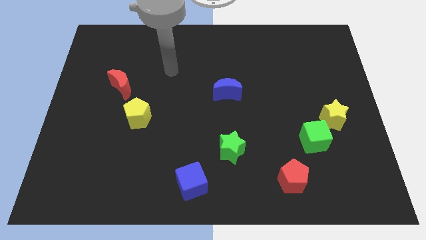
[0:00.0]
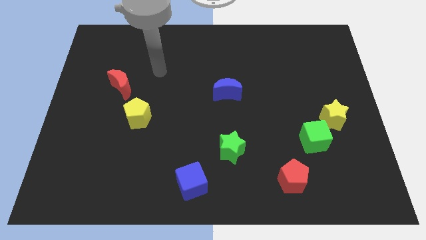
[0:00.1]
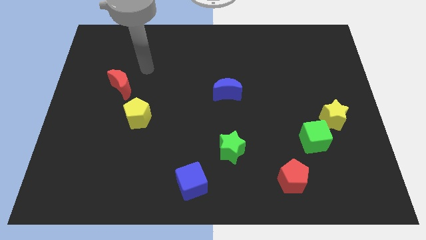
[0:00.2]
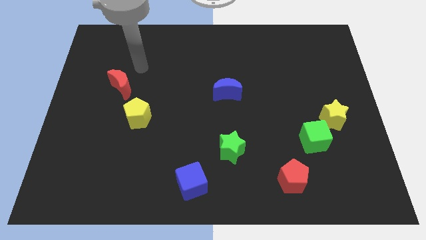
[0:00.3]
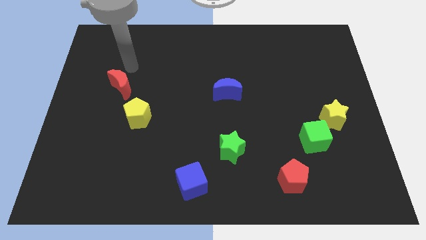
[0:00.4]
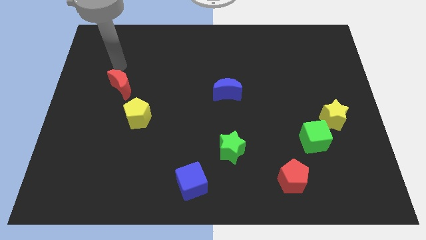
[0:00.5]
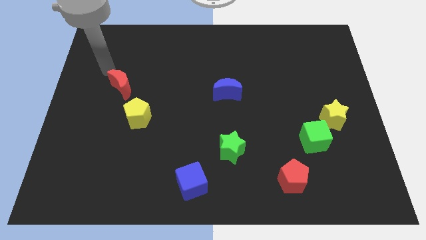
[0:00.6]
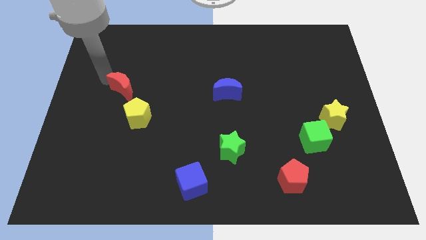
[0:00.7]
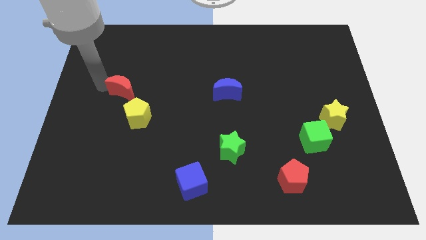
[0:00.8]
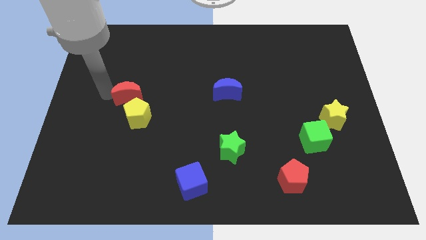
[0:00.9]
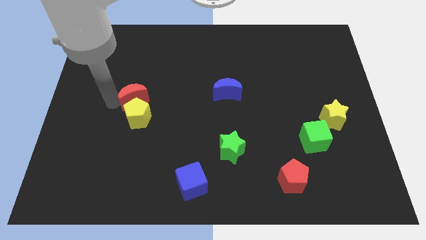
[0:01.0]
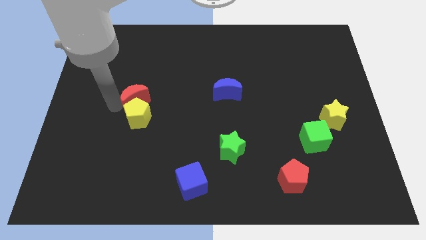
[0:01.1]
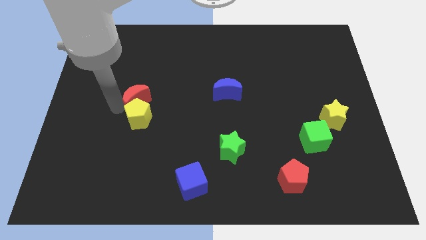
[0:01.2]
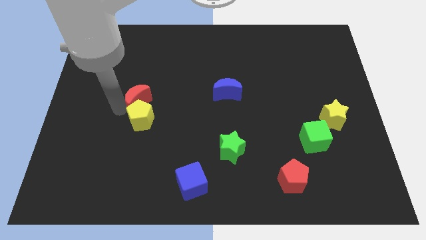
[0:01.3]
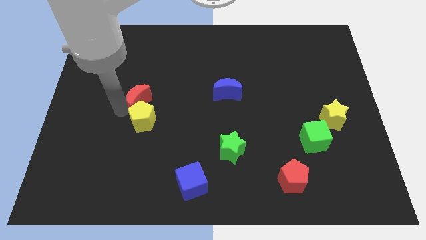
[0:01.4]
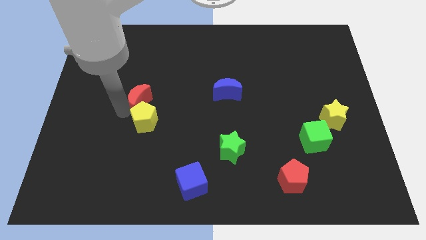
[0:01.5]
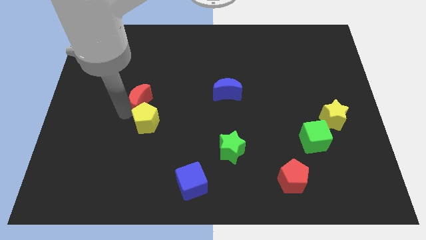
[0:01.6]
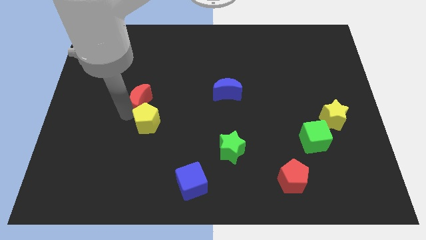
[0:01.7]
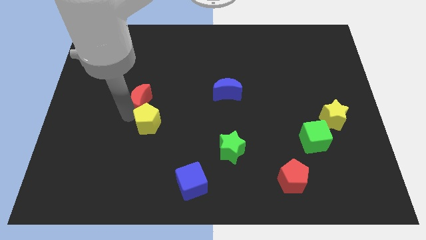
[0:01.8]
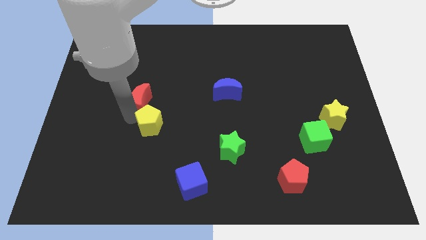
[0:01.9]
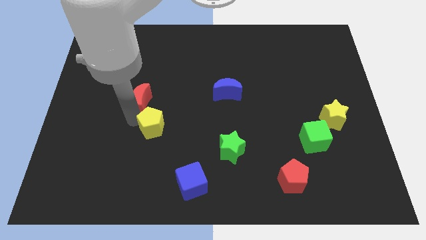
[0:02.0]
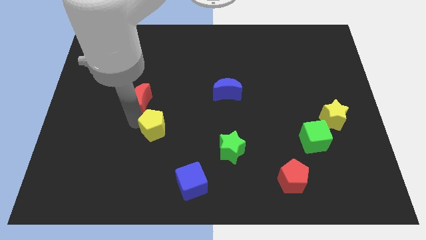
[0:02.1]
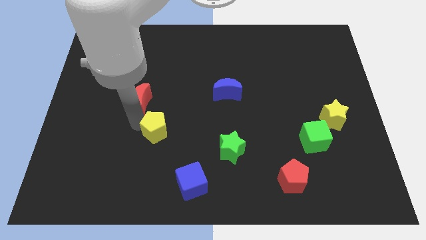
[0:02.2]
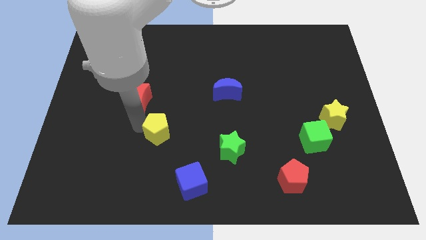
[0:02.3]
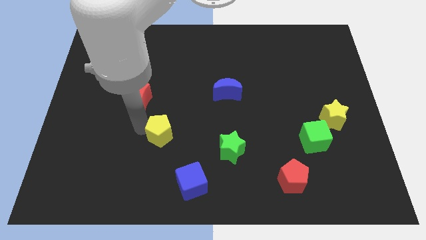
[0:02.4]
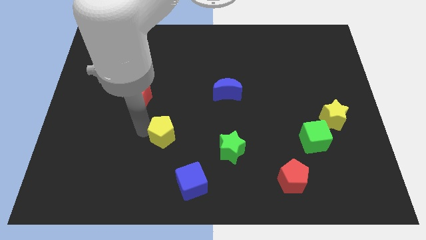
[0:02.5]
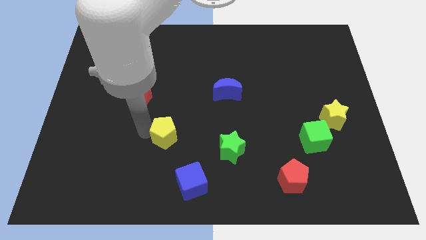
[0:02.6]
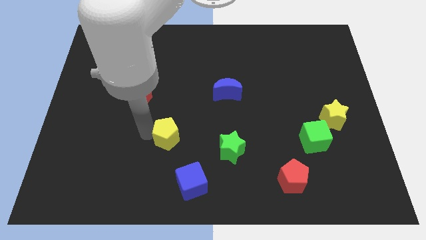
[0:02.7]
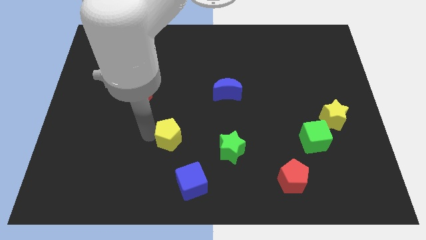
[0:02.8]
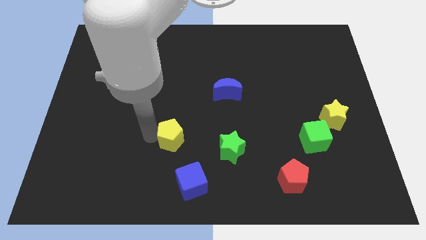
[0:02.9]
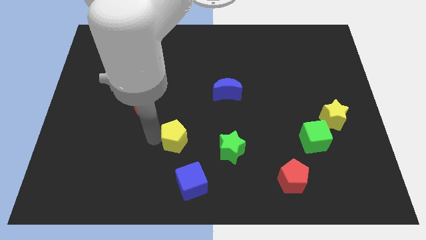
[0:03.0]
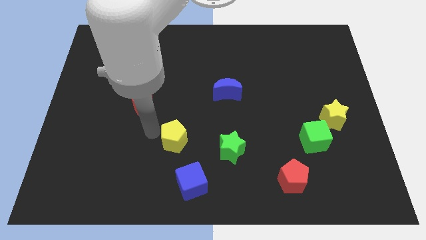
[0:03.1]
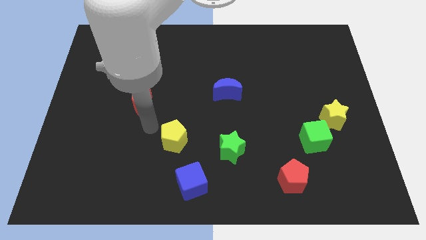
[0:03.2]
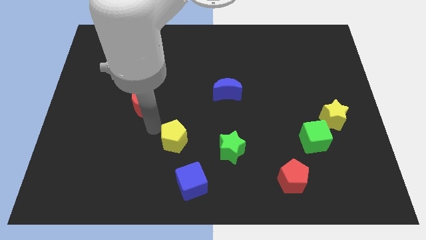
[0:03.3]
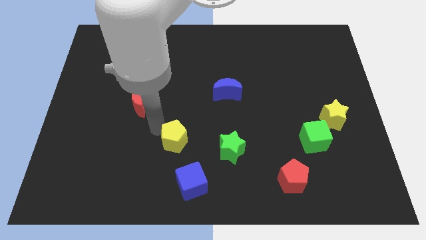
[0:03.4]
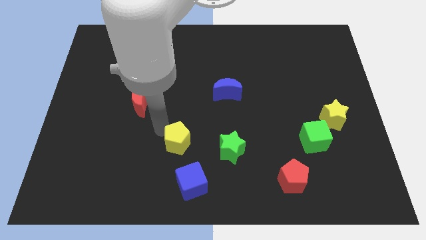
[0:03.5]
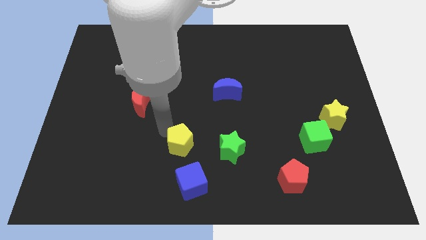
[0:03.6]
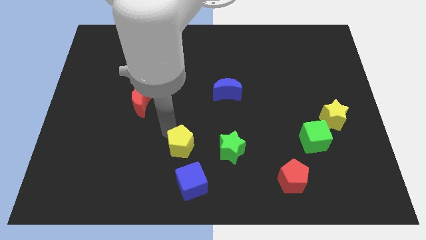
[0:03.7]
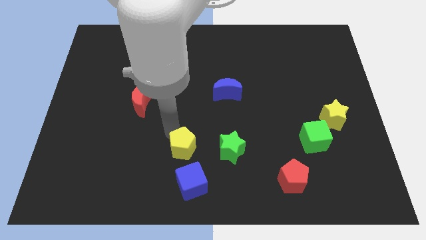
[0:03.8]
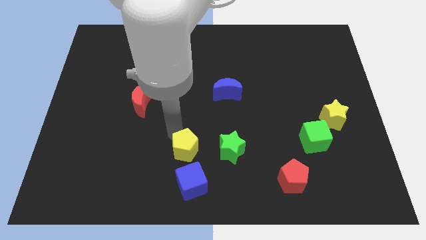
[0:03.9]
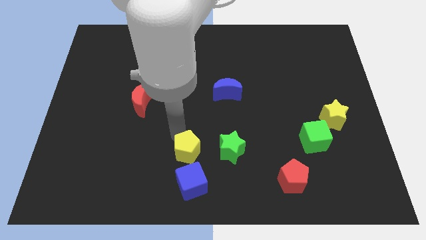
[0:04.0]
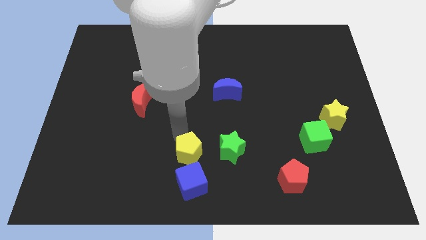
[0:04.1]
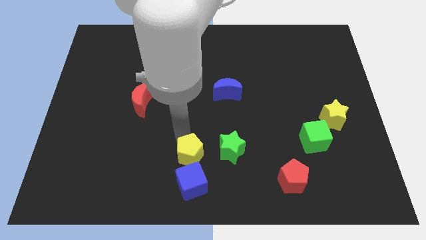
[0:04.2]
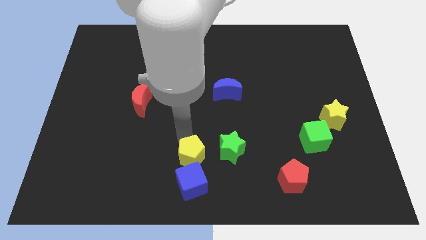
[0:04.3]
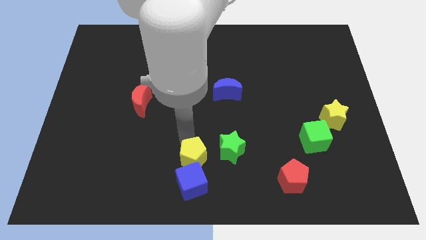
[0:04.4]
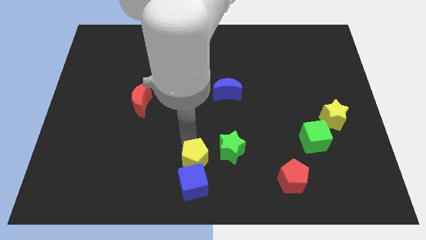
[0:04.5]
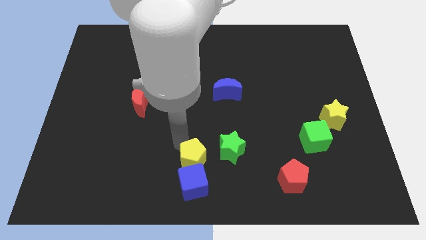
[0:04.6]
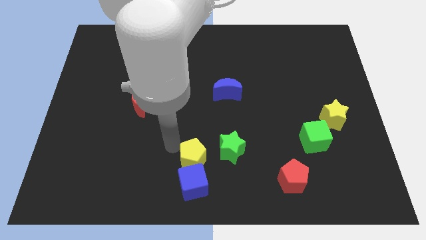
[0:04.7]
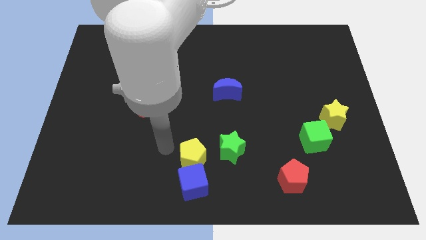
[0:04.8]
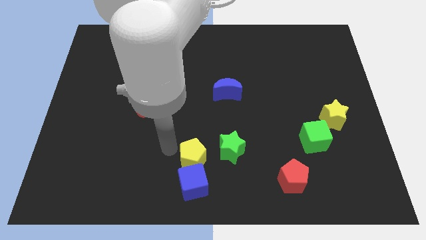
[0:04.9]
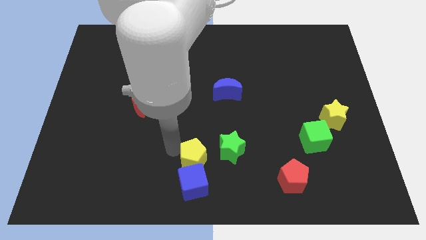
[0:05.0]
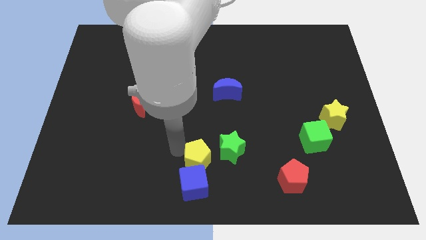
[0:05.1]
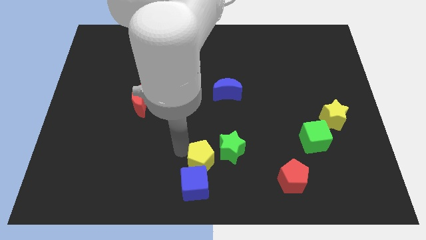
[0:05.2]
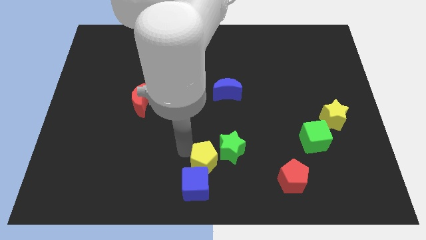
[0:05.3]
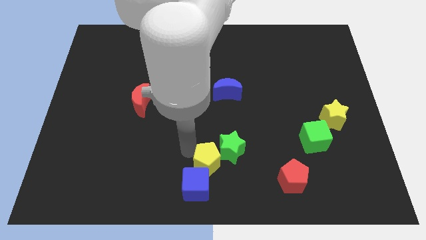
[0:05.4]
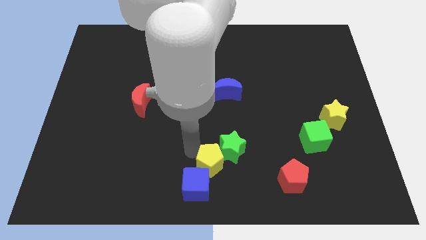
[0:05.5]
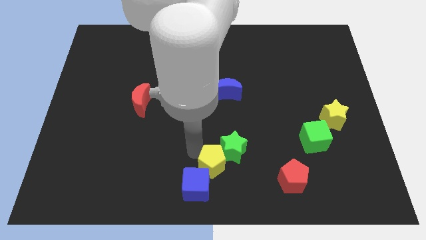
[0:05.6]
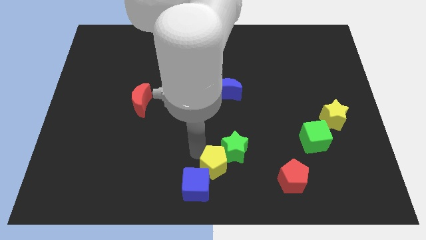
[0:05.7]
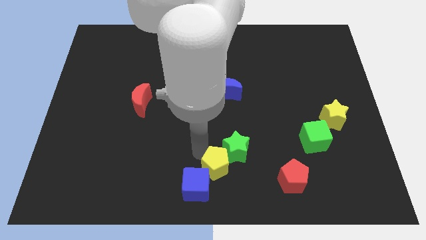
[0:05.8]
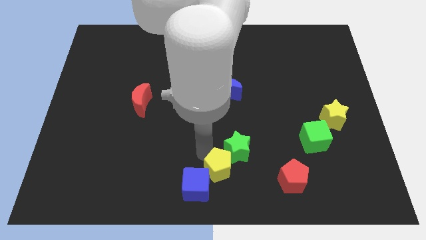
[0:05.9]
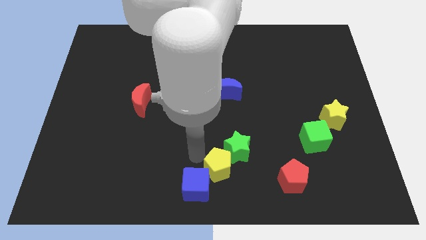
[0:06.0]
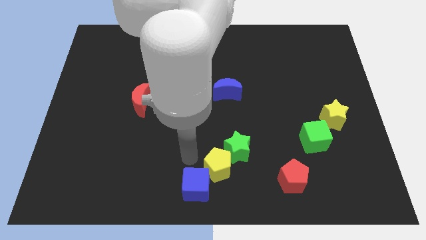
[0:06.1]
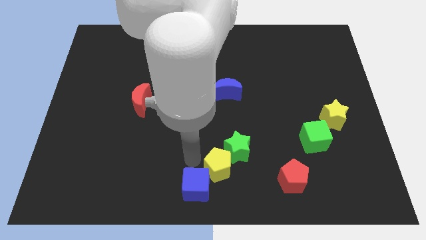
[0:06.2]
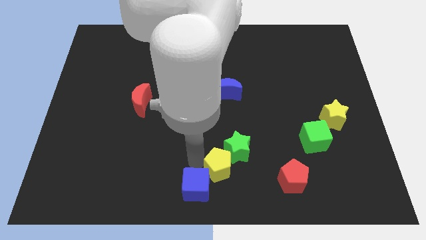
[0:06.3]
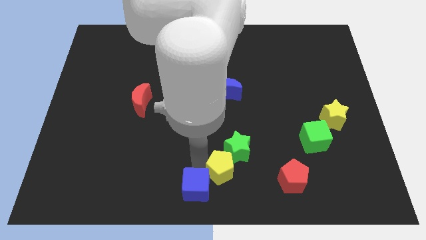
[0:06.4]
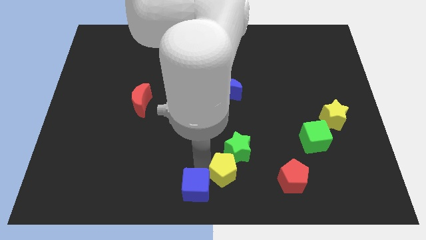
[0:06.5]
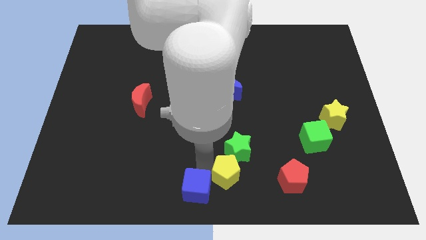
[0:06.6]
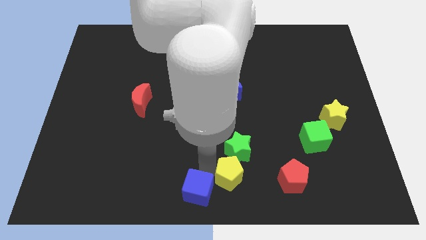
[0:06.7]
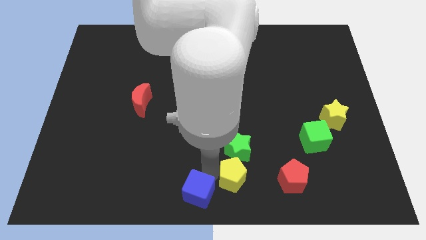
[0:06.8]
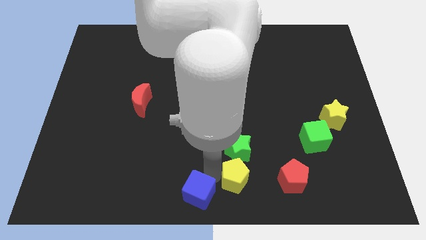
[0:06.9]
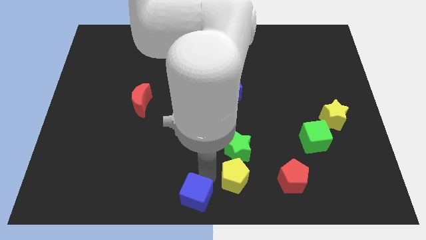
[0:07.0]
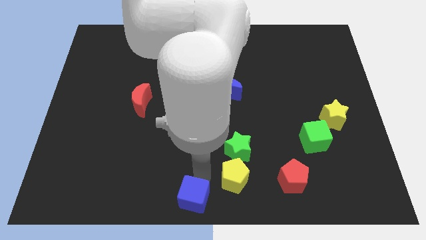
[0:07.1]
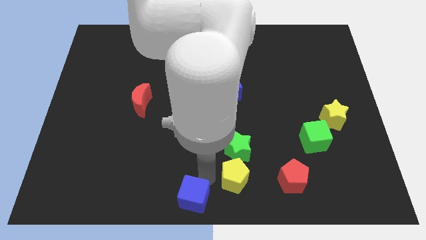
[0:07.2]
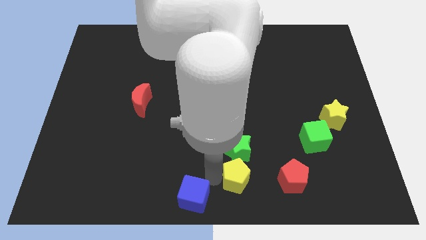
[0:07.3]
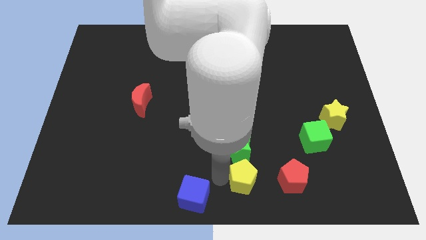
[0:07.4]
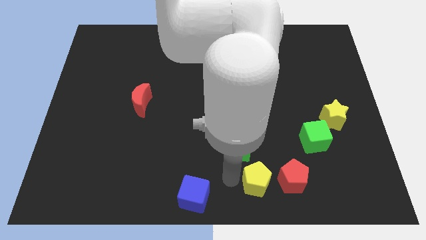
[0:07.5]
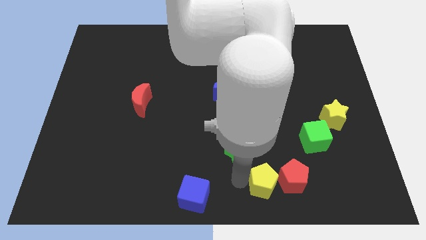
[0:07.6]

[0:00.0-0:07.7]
slide the yellow pentagon next to the red pentagon
